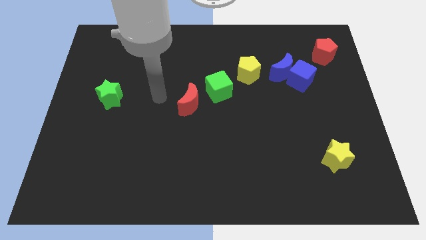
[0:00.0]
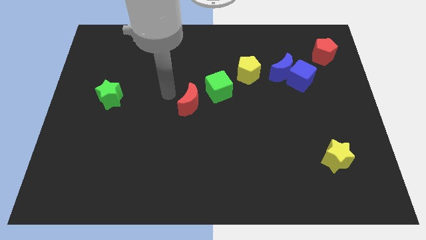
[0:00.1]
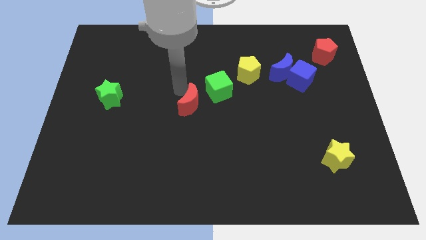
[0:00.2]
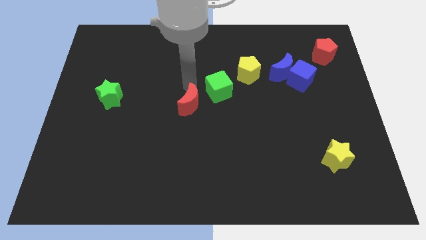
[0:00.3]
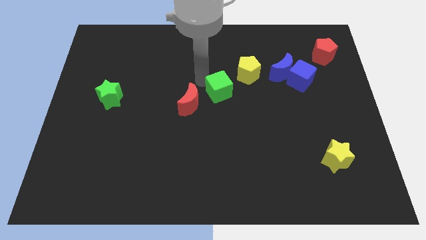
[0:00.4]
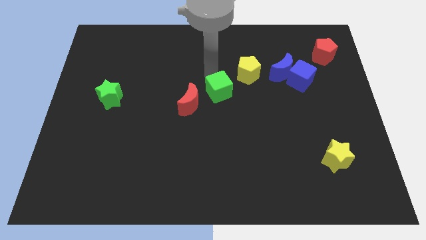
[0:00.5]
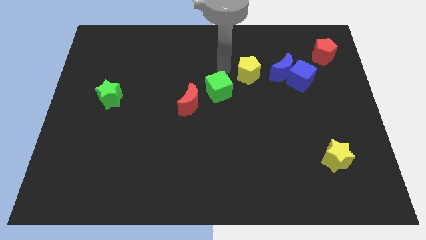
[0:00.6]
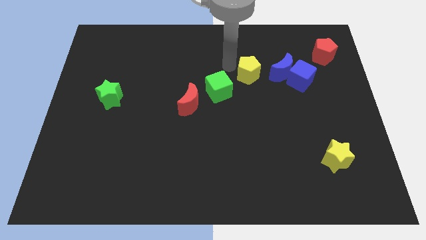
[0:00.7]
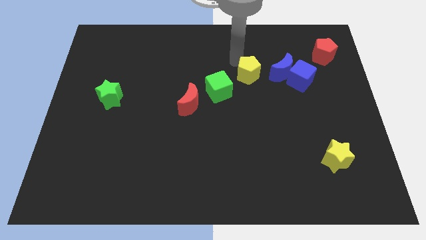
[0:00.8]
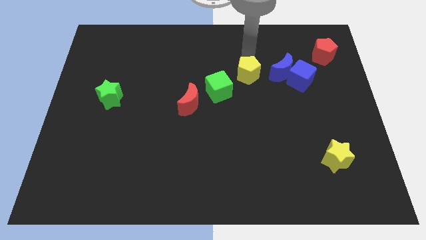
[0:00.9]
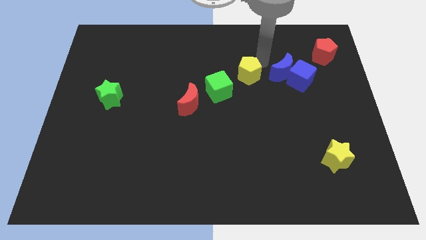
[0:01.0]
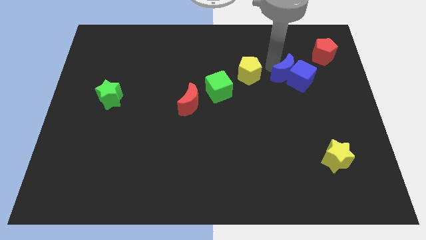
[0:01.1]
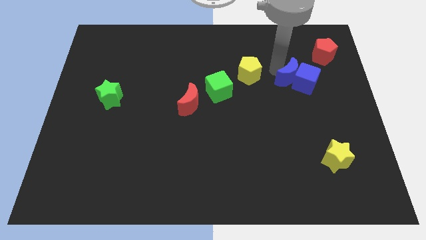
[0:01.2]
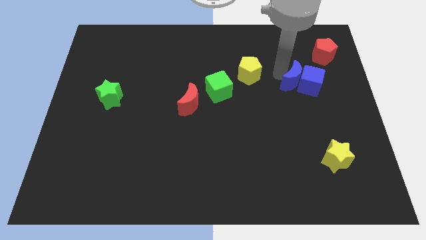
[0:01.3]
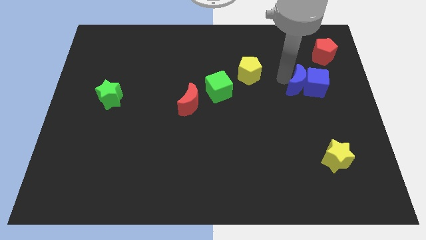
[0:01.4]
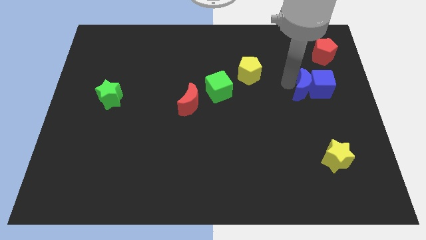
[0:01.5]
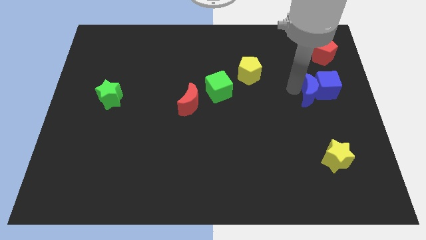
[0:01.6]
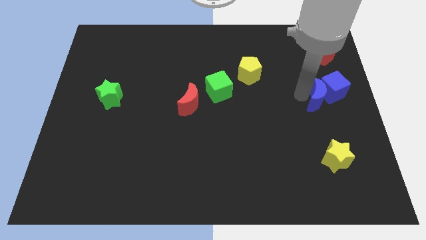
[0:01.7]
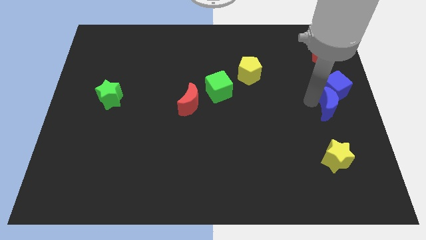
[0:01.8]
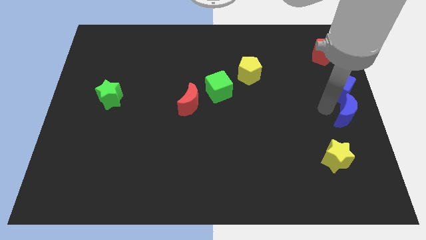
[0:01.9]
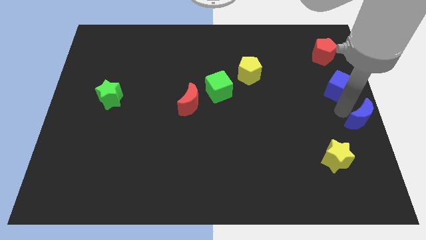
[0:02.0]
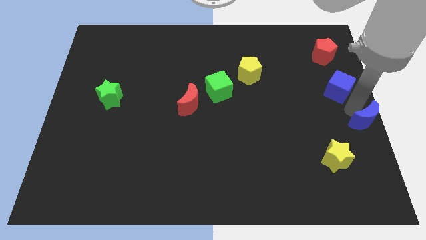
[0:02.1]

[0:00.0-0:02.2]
pull the blue cube apart from the blue moon

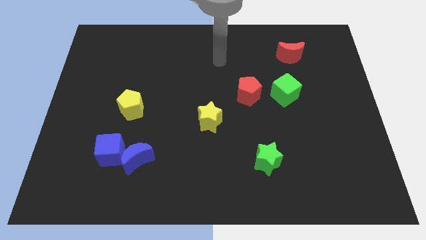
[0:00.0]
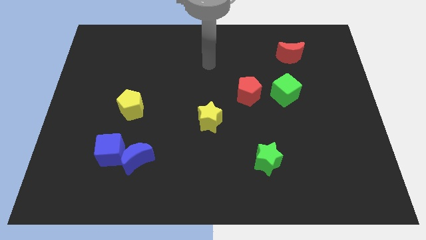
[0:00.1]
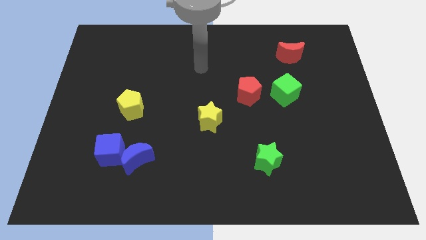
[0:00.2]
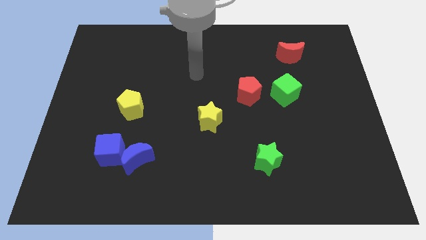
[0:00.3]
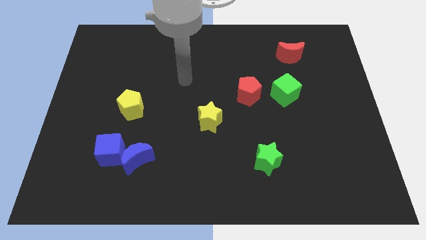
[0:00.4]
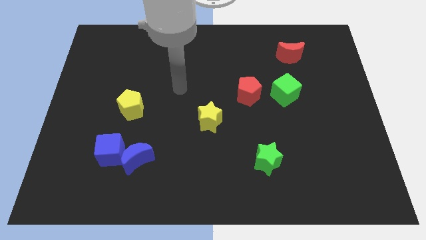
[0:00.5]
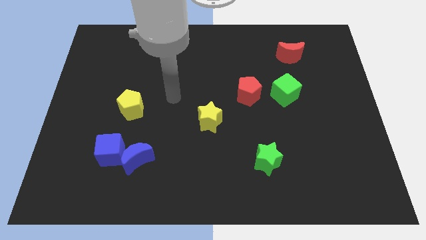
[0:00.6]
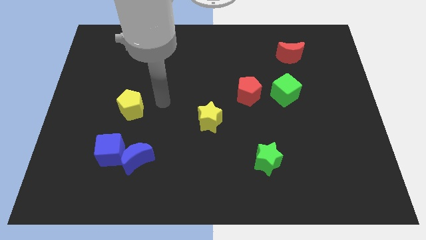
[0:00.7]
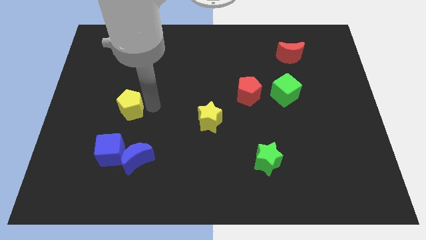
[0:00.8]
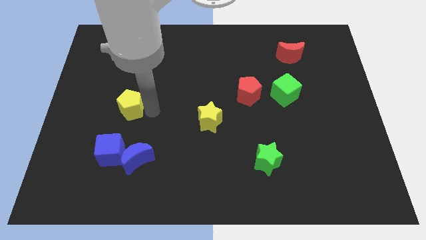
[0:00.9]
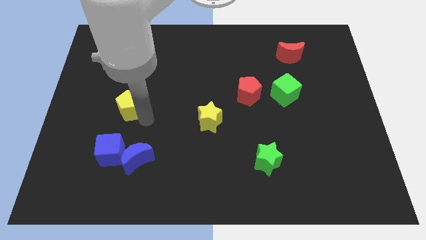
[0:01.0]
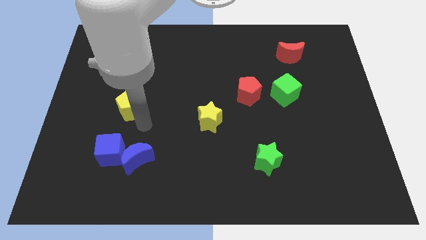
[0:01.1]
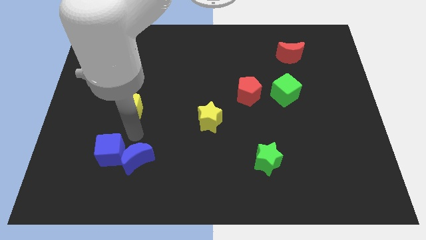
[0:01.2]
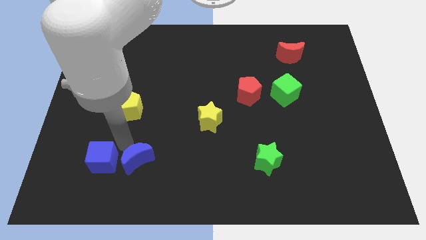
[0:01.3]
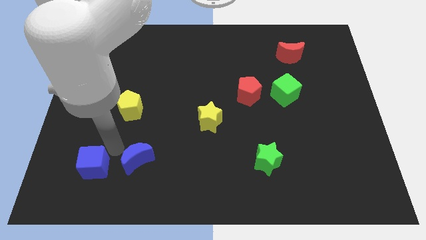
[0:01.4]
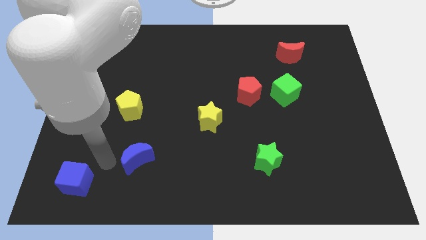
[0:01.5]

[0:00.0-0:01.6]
separate the blue moon from the blue cube

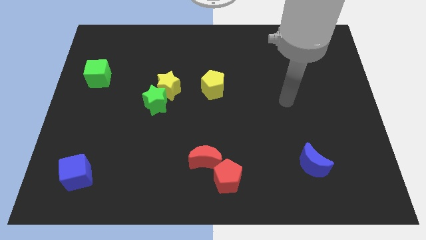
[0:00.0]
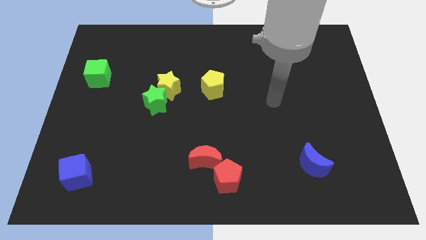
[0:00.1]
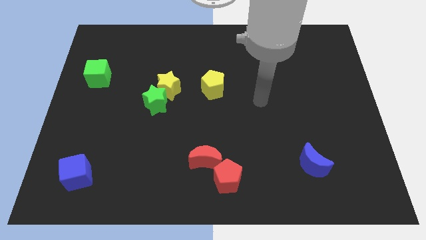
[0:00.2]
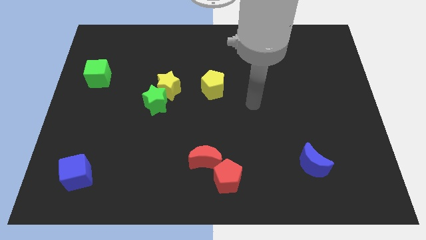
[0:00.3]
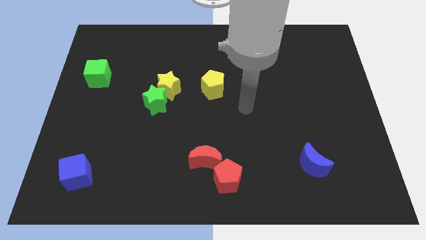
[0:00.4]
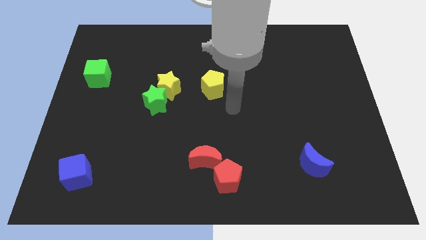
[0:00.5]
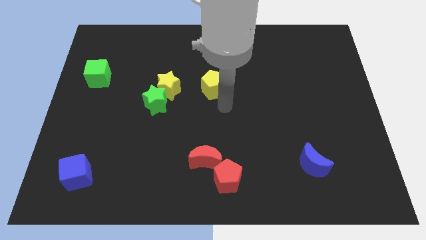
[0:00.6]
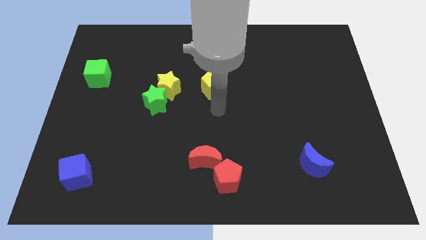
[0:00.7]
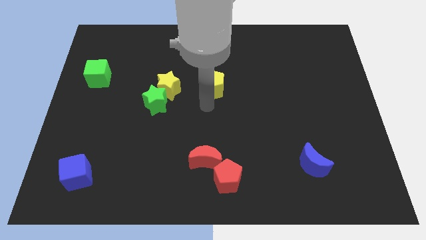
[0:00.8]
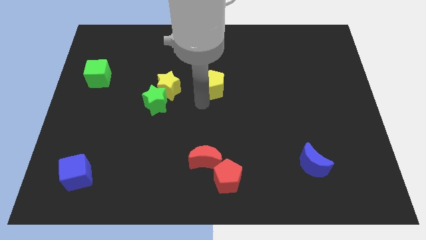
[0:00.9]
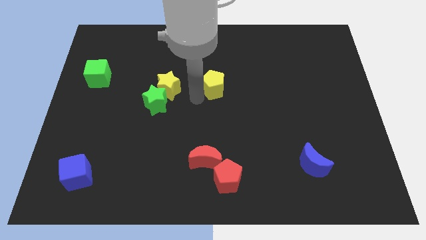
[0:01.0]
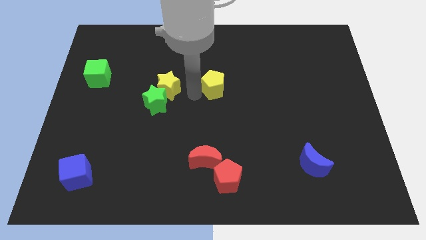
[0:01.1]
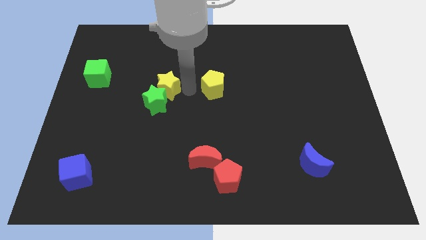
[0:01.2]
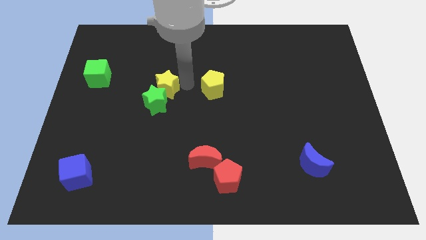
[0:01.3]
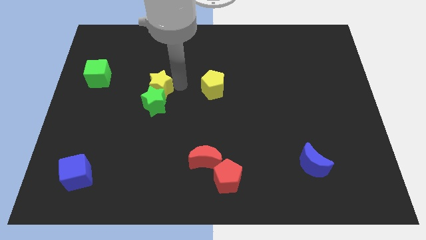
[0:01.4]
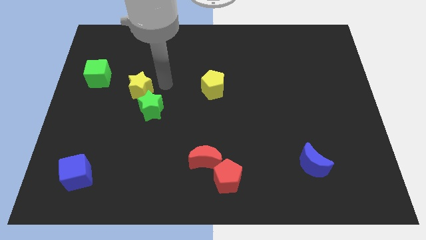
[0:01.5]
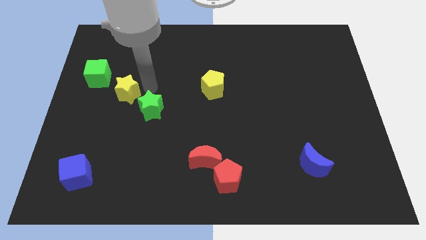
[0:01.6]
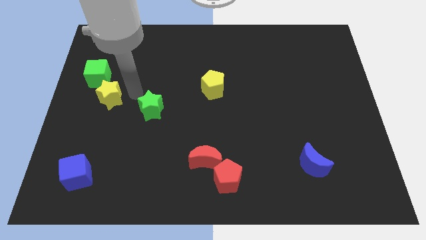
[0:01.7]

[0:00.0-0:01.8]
move the green star away from the yellow star

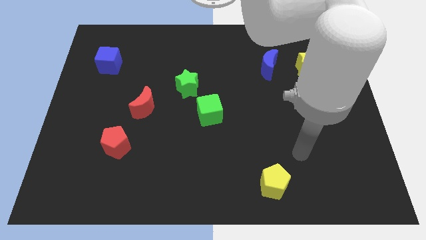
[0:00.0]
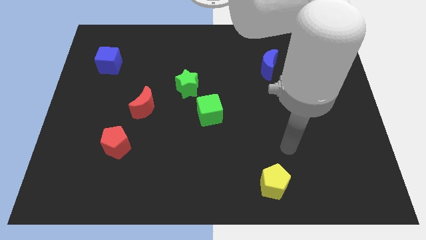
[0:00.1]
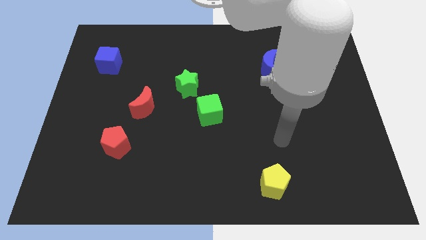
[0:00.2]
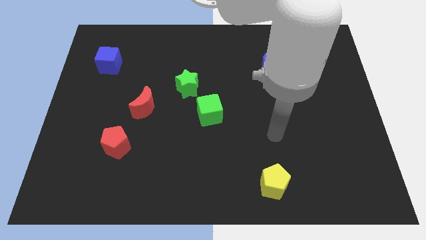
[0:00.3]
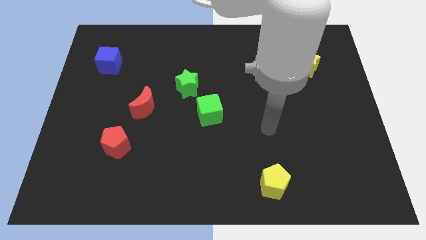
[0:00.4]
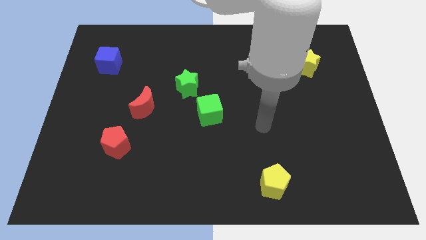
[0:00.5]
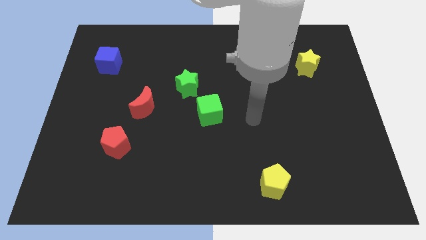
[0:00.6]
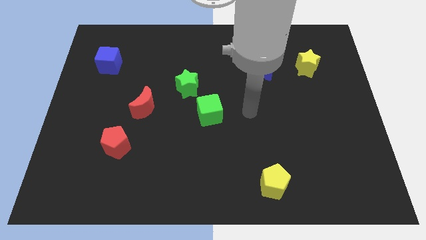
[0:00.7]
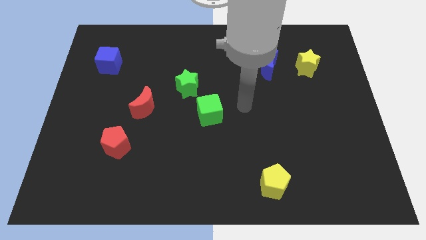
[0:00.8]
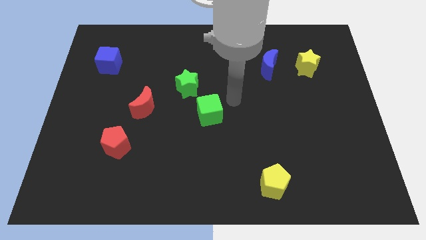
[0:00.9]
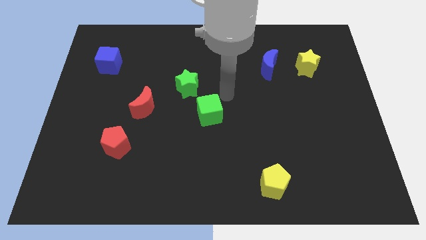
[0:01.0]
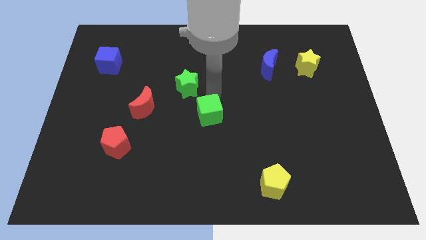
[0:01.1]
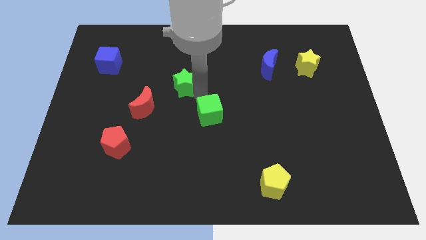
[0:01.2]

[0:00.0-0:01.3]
pull the green cube apart from the green star

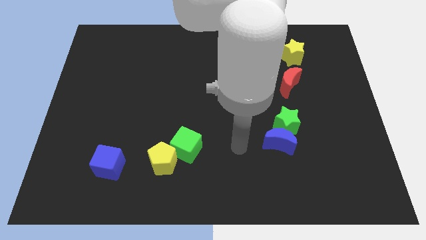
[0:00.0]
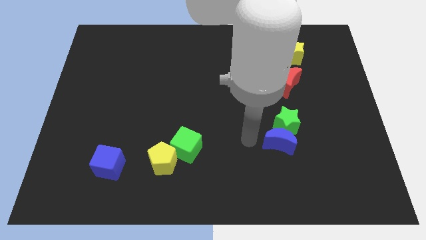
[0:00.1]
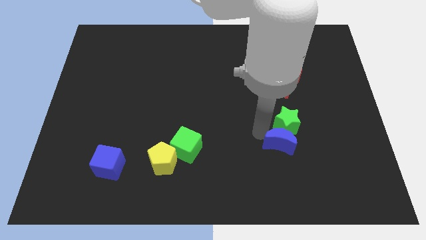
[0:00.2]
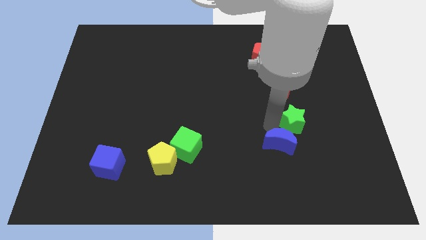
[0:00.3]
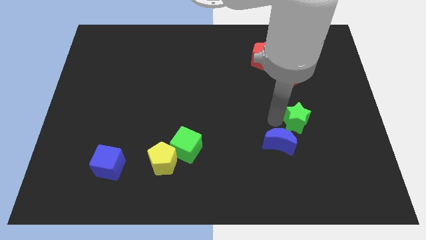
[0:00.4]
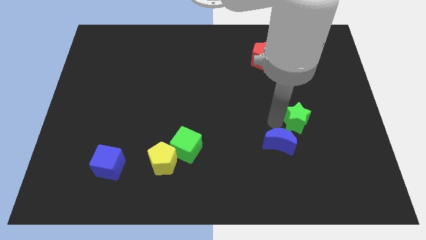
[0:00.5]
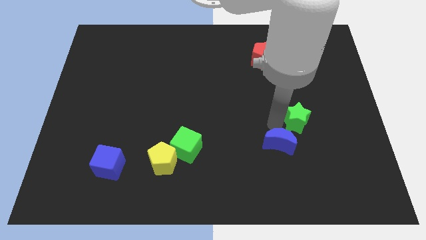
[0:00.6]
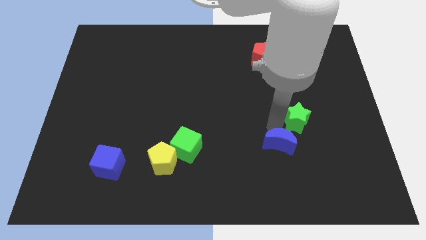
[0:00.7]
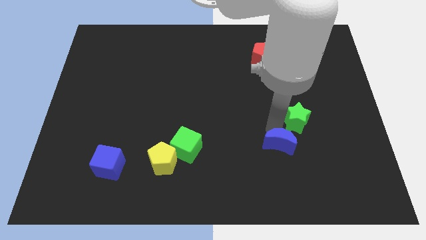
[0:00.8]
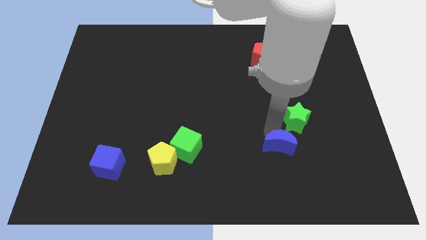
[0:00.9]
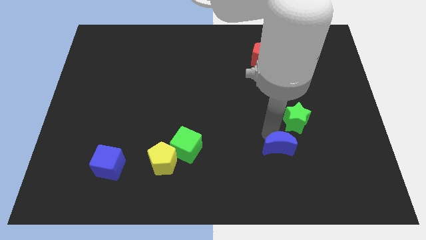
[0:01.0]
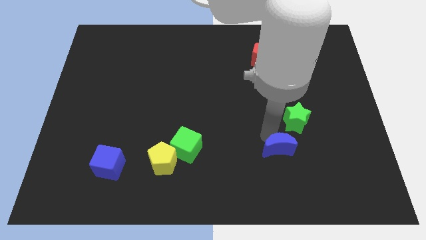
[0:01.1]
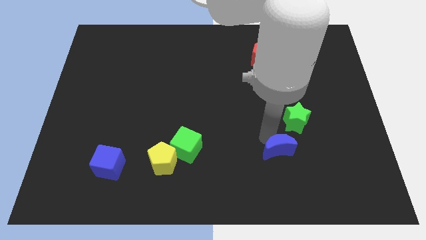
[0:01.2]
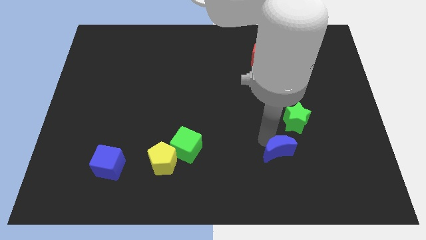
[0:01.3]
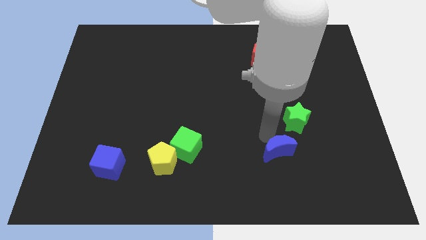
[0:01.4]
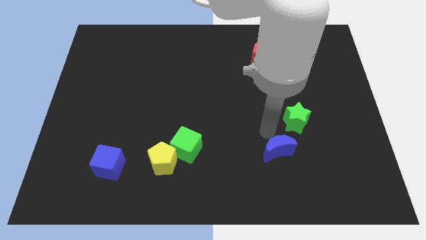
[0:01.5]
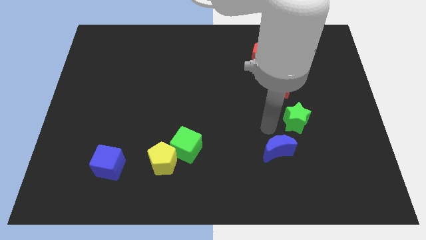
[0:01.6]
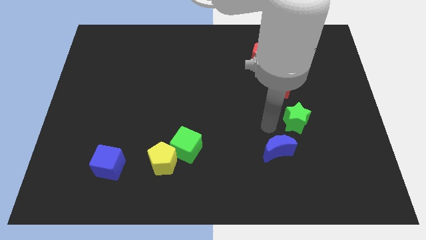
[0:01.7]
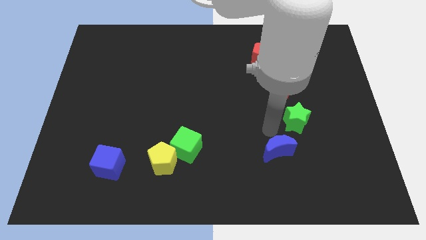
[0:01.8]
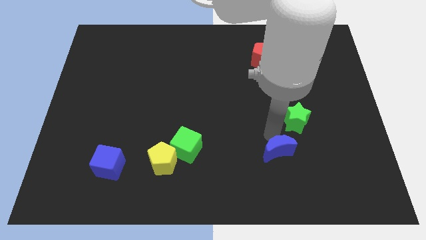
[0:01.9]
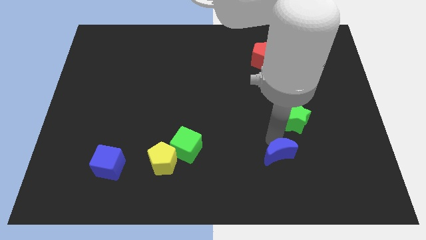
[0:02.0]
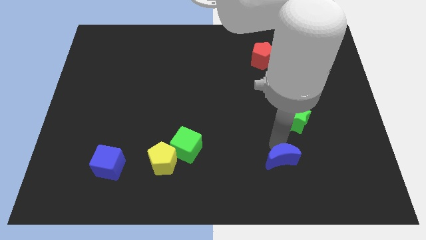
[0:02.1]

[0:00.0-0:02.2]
pull the blue moon apart from the green star

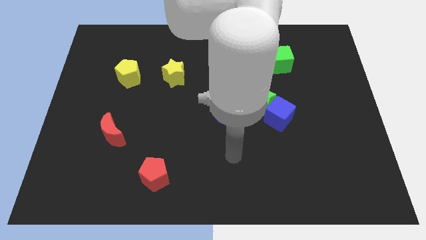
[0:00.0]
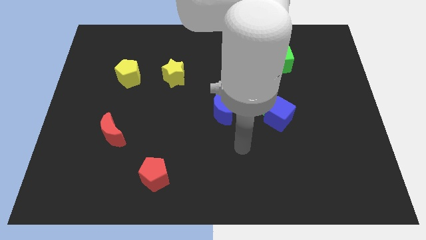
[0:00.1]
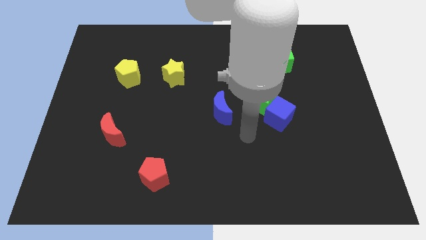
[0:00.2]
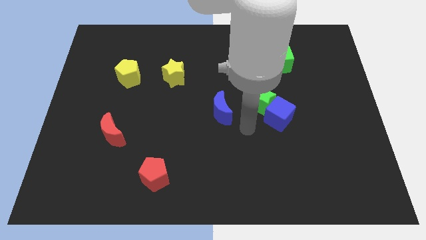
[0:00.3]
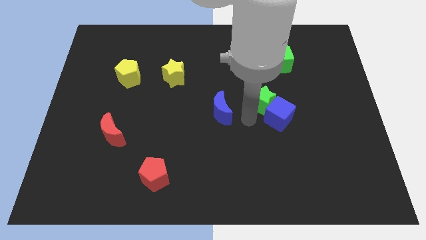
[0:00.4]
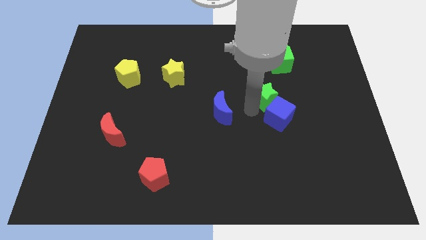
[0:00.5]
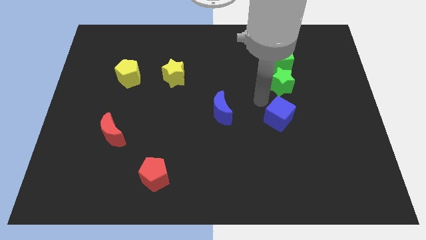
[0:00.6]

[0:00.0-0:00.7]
separate the blue cube from the green star
